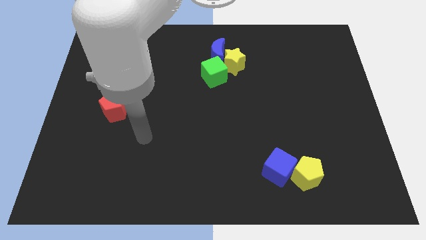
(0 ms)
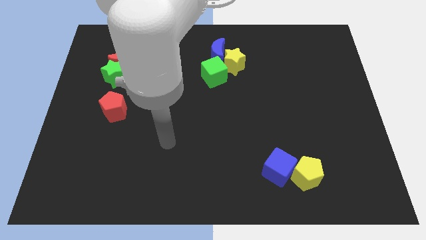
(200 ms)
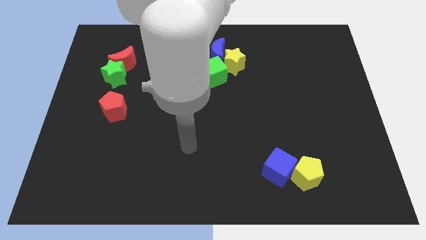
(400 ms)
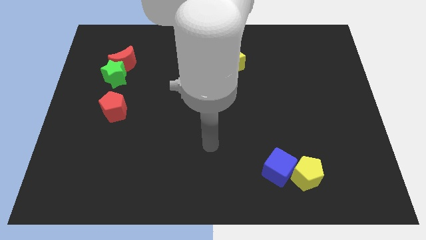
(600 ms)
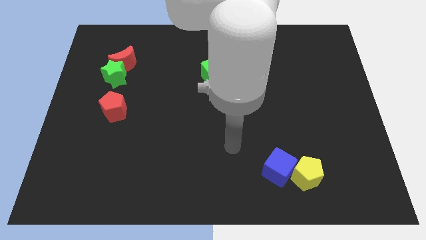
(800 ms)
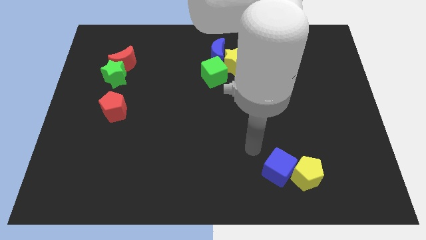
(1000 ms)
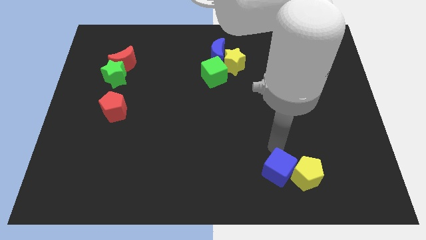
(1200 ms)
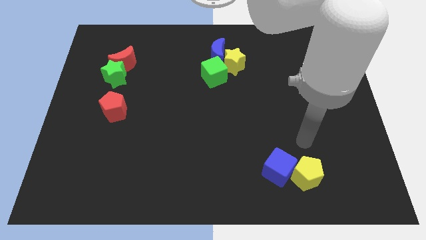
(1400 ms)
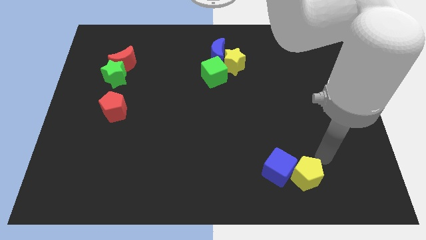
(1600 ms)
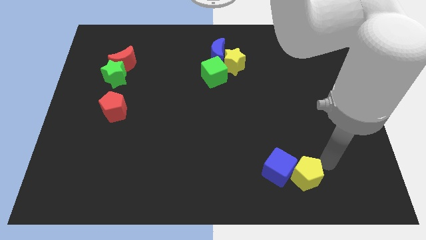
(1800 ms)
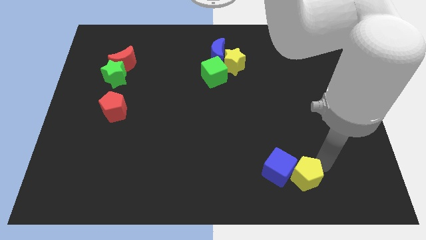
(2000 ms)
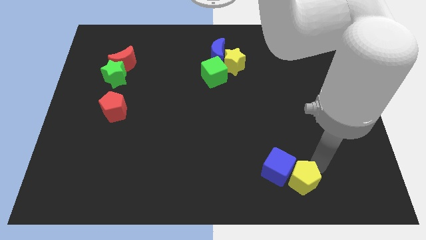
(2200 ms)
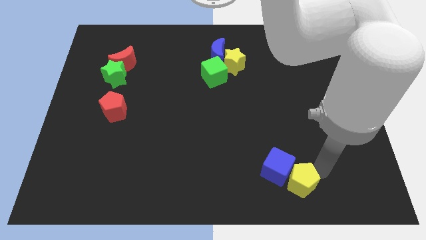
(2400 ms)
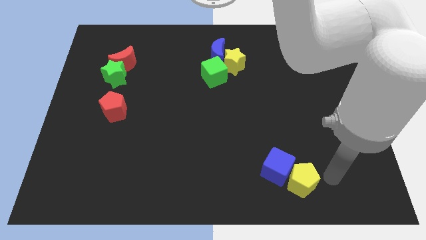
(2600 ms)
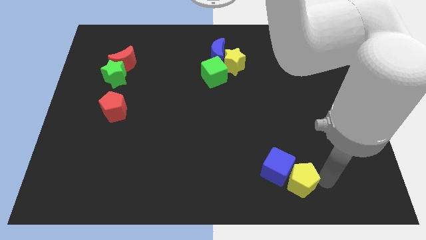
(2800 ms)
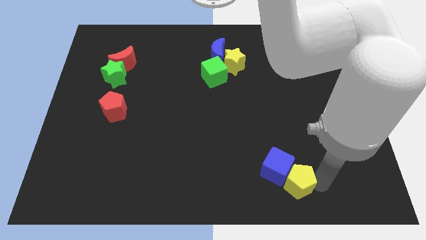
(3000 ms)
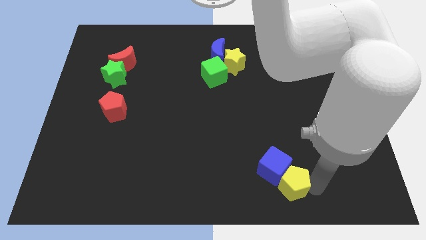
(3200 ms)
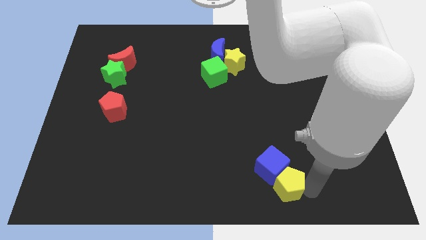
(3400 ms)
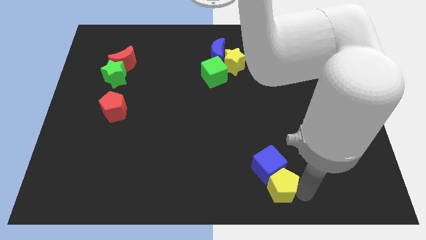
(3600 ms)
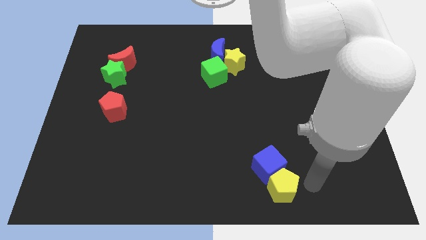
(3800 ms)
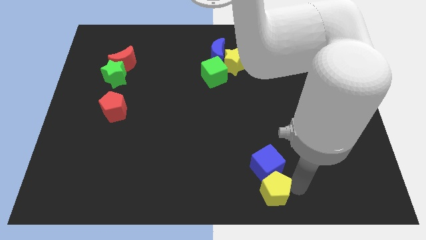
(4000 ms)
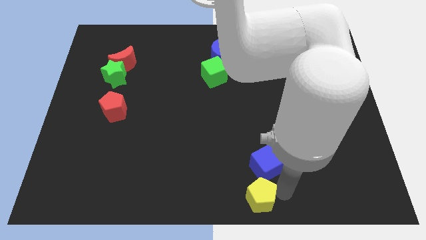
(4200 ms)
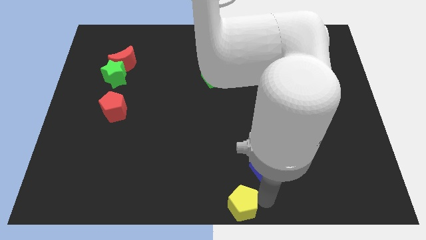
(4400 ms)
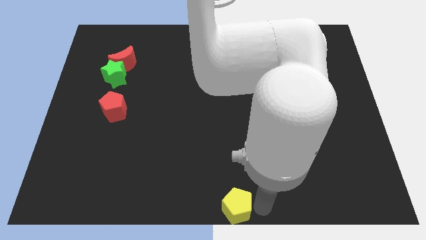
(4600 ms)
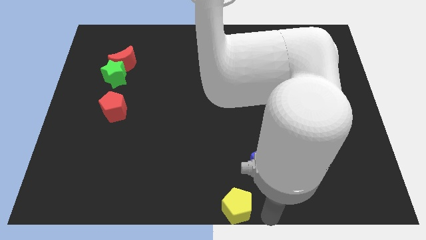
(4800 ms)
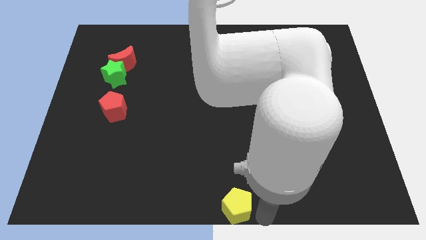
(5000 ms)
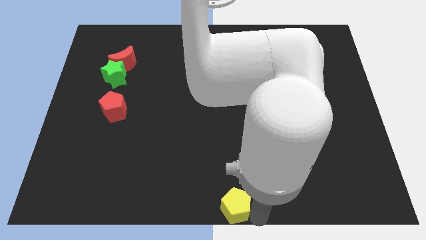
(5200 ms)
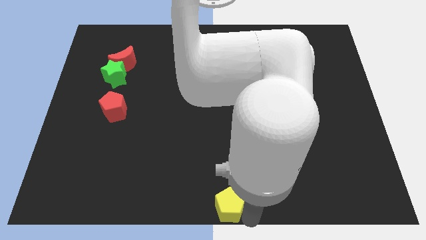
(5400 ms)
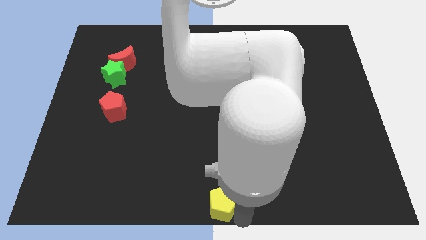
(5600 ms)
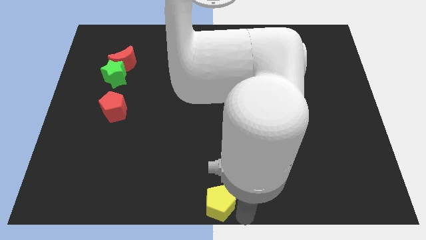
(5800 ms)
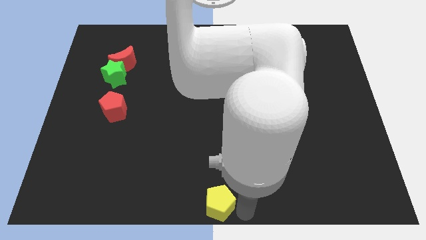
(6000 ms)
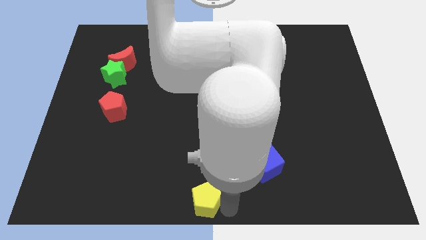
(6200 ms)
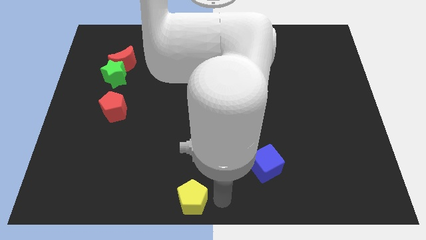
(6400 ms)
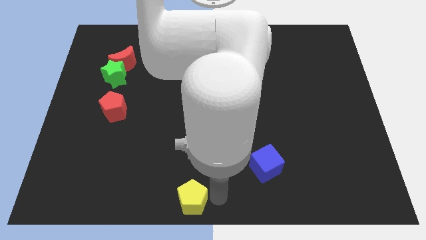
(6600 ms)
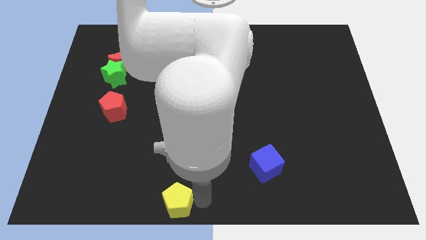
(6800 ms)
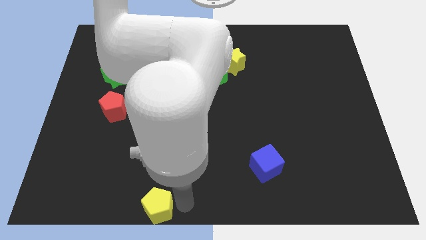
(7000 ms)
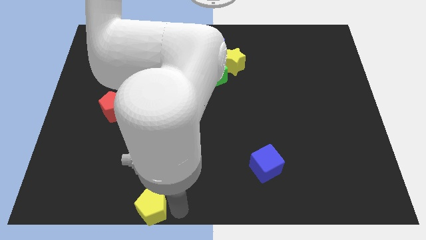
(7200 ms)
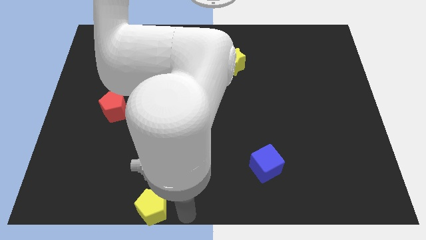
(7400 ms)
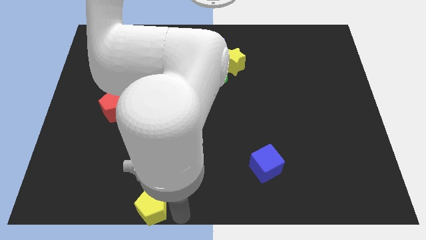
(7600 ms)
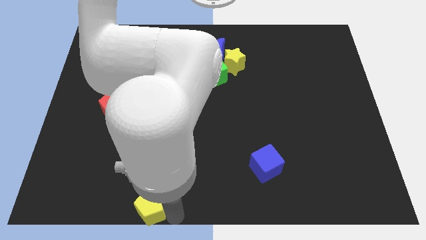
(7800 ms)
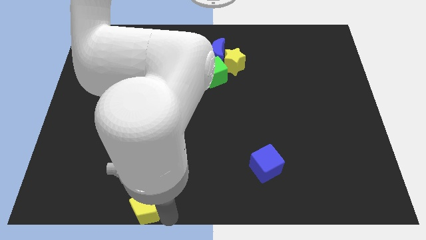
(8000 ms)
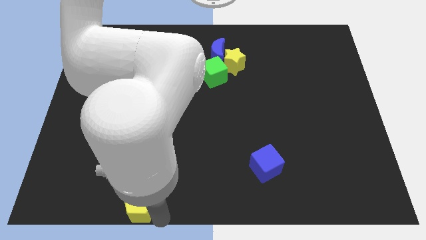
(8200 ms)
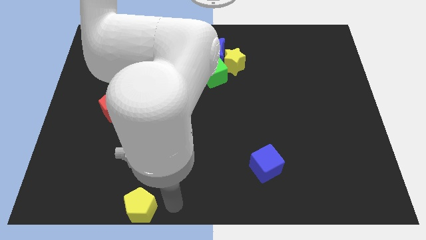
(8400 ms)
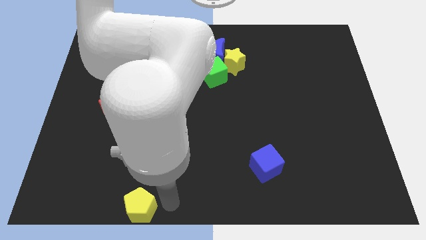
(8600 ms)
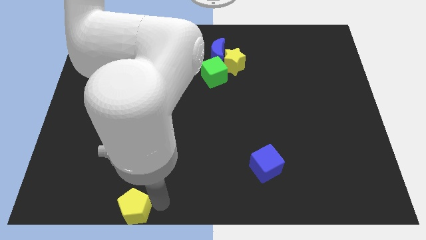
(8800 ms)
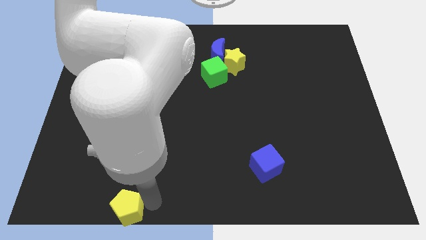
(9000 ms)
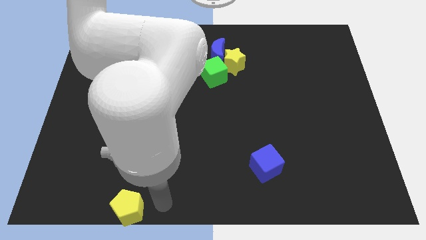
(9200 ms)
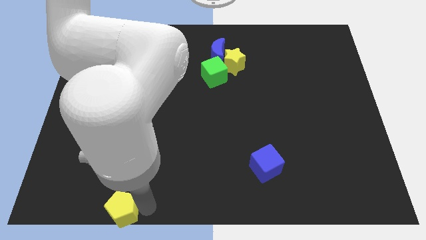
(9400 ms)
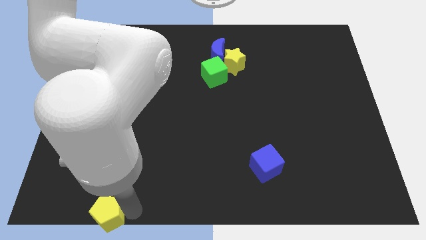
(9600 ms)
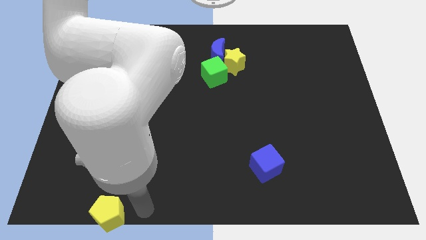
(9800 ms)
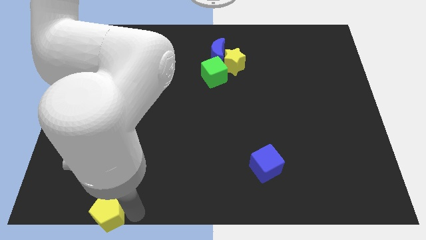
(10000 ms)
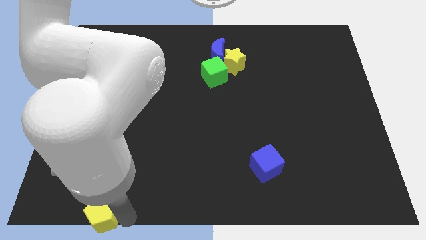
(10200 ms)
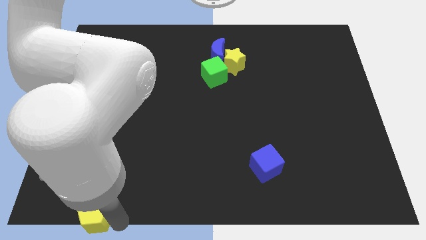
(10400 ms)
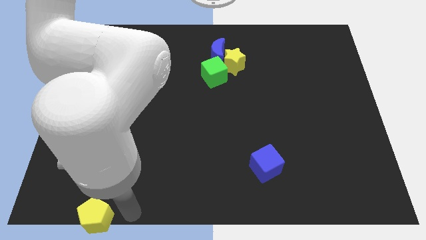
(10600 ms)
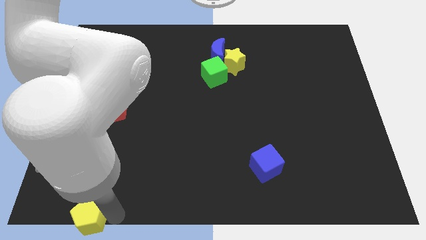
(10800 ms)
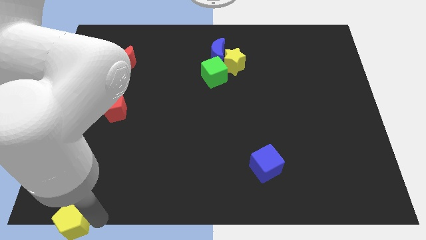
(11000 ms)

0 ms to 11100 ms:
put the yellow pentagon to the bottom left
